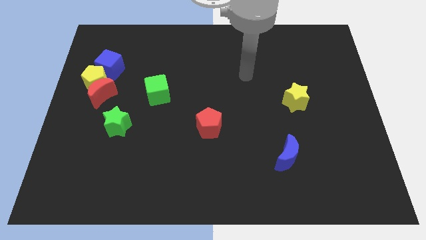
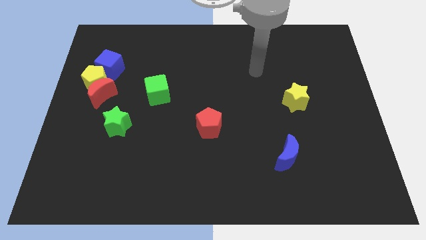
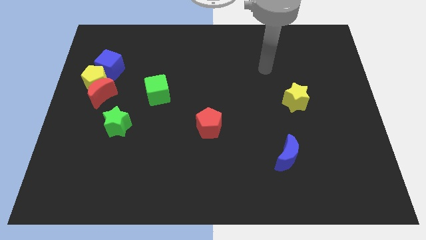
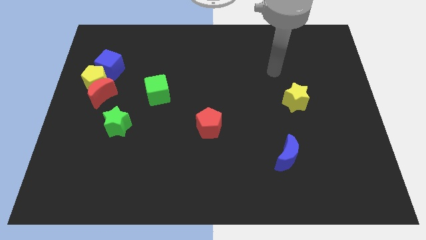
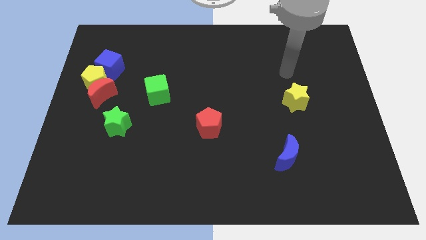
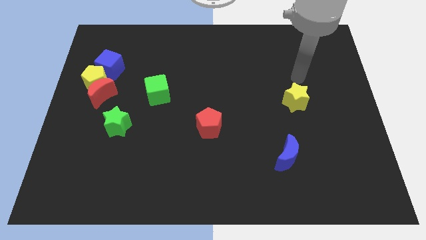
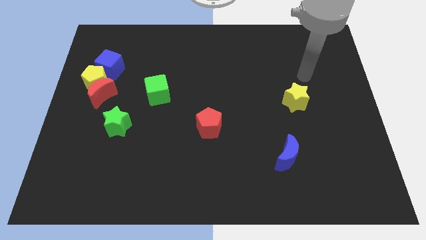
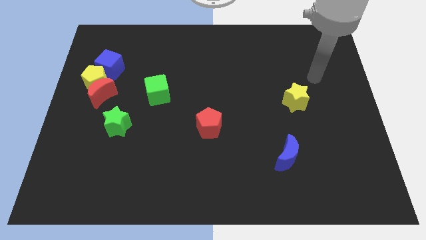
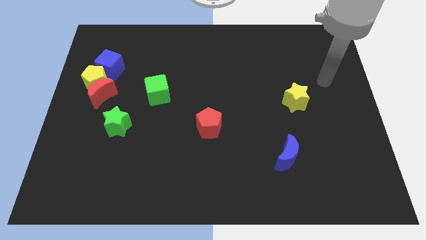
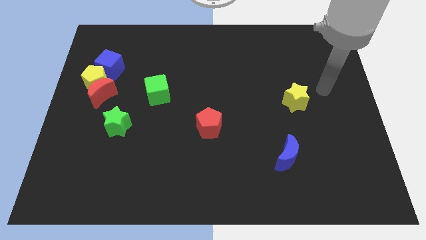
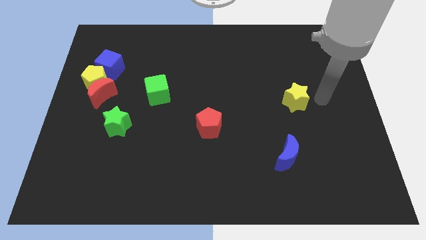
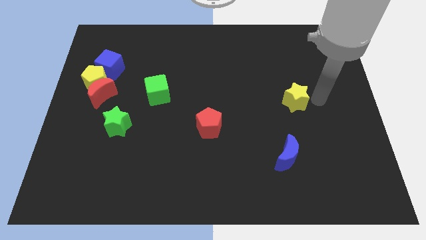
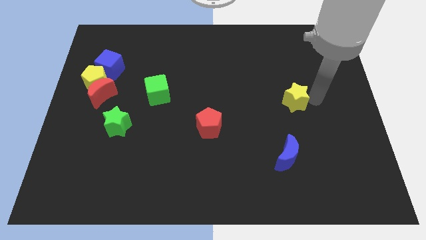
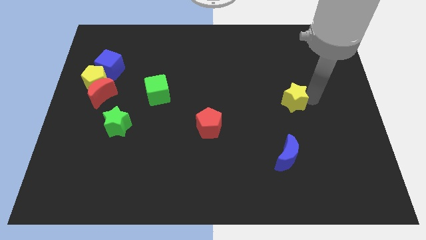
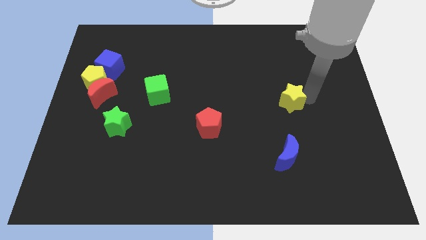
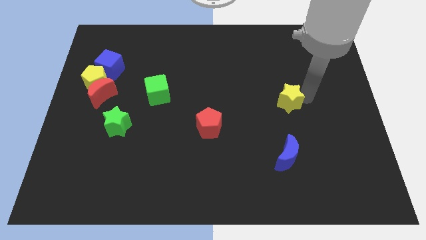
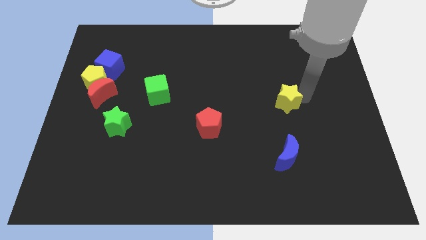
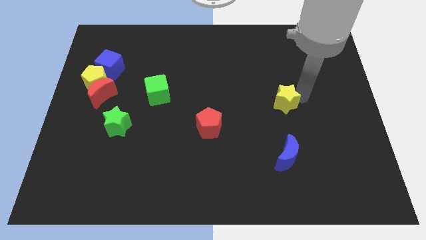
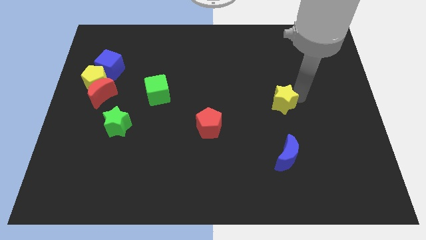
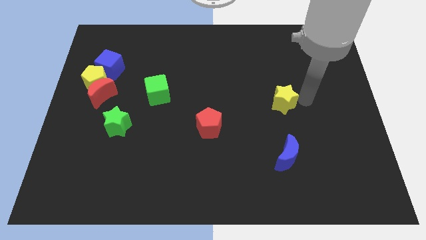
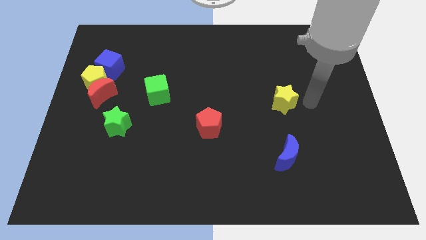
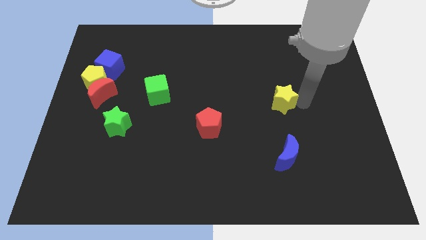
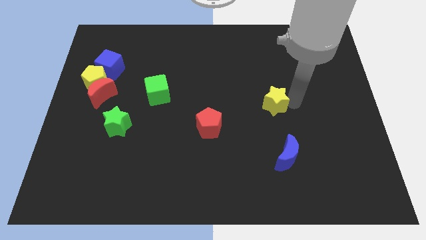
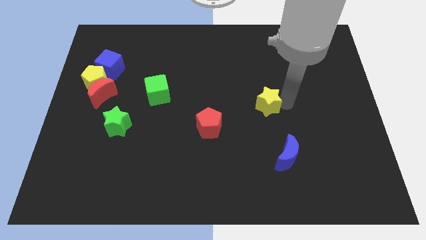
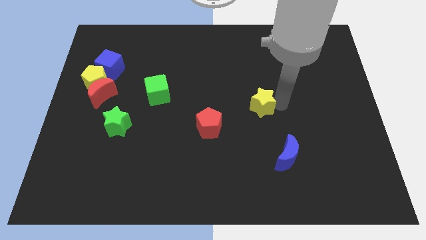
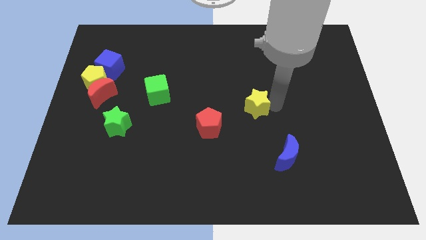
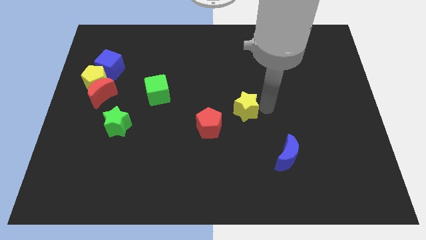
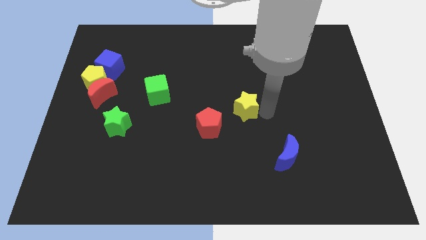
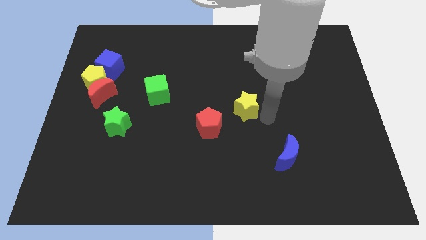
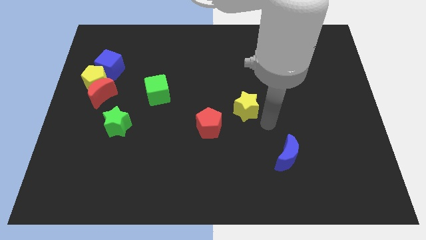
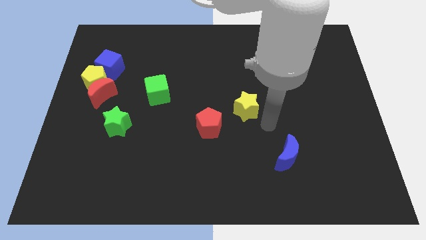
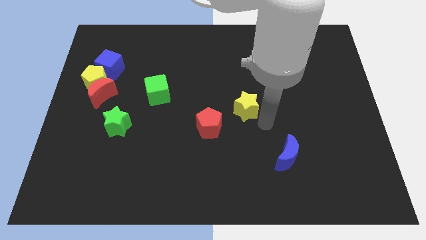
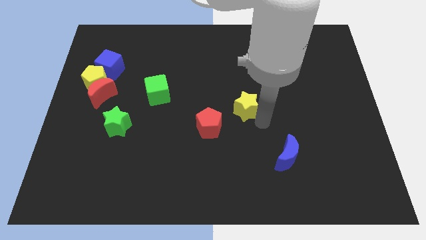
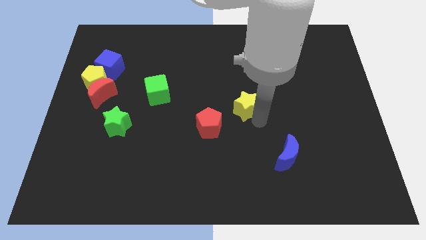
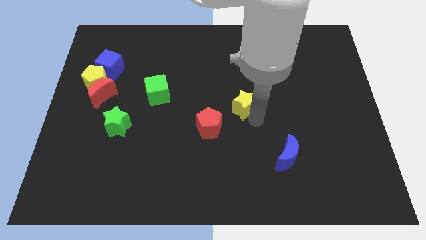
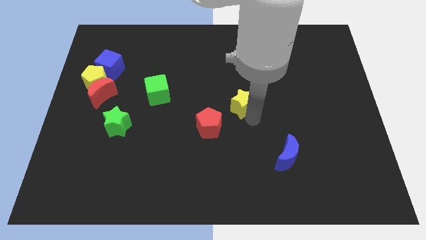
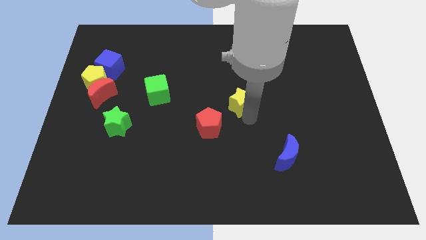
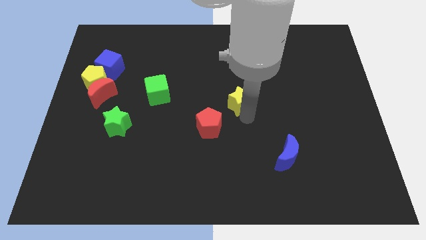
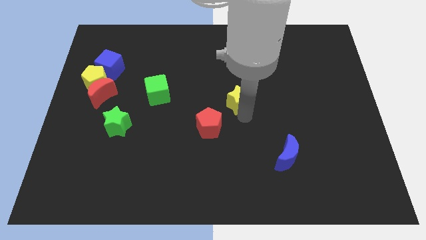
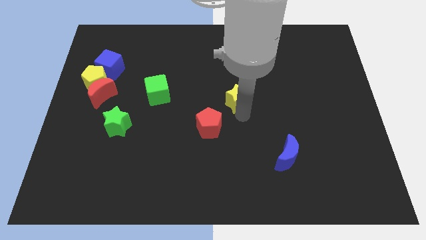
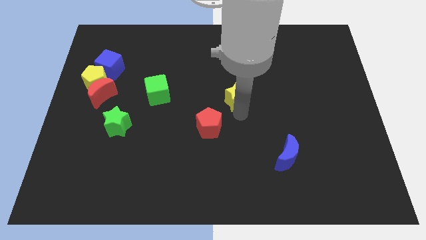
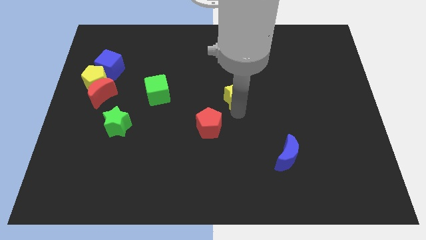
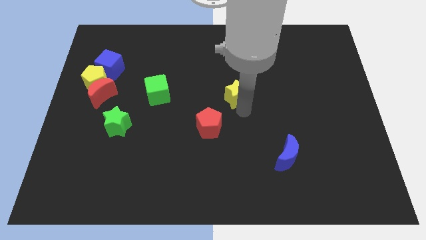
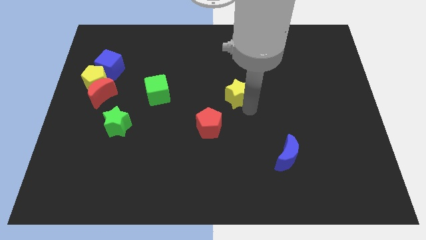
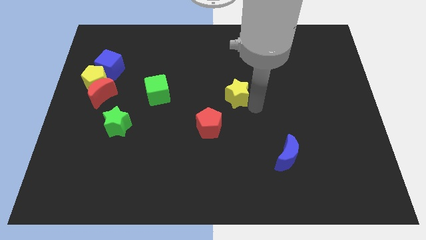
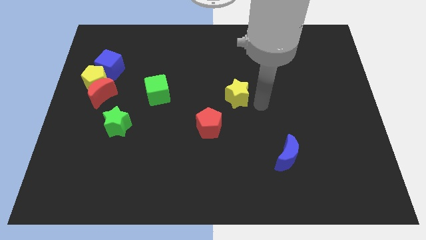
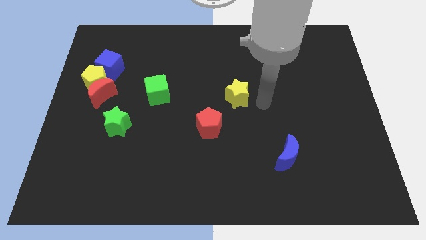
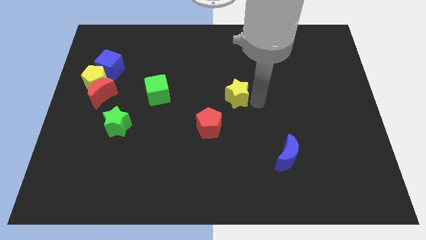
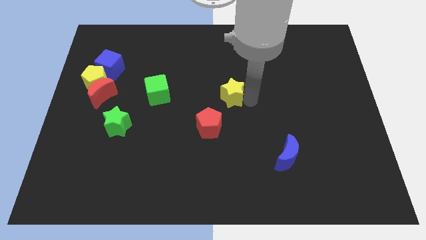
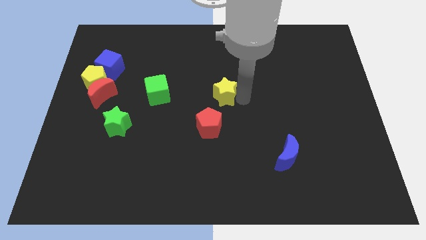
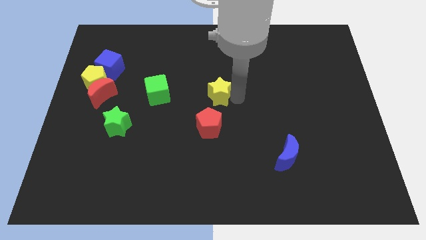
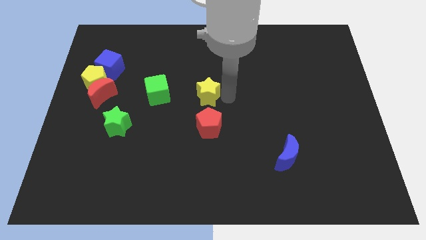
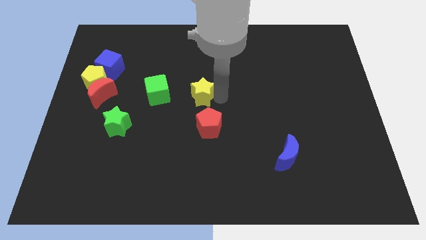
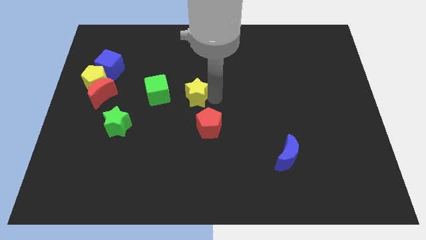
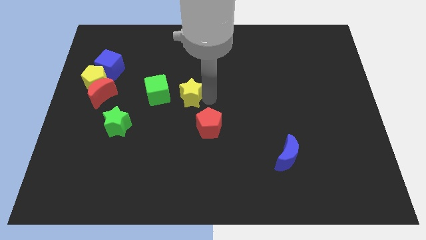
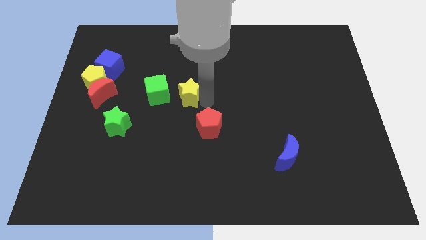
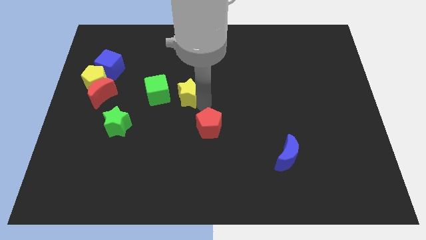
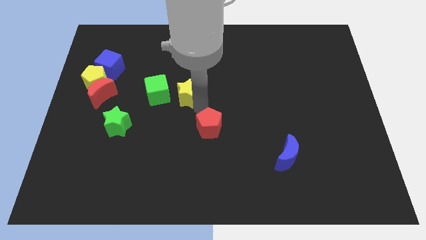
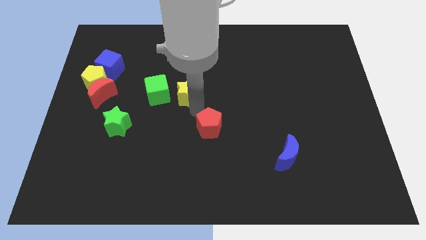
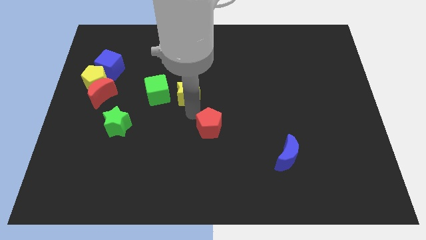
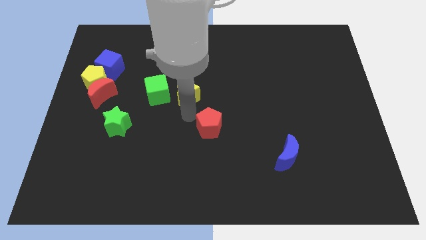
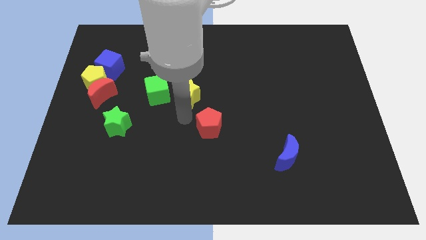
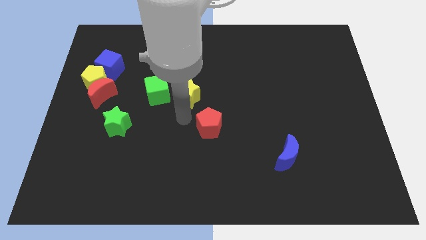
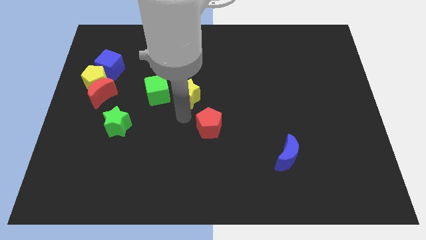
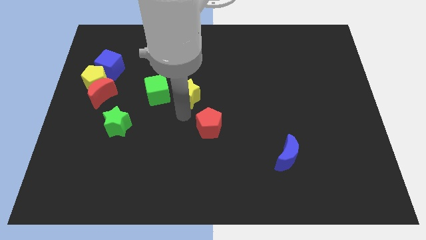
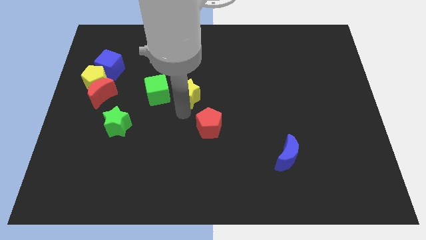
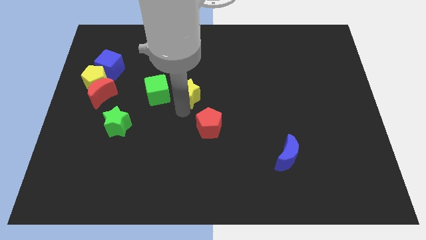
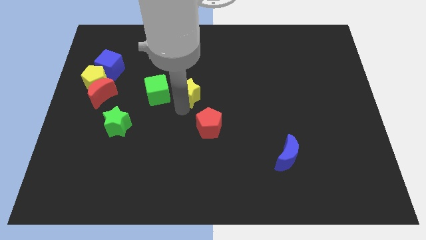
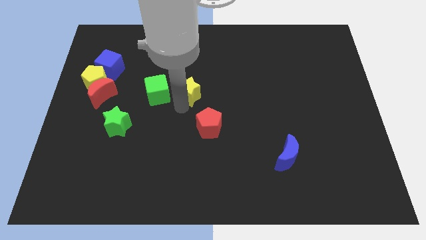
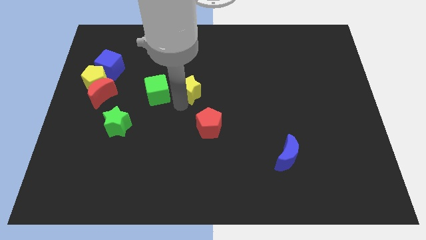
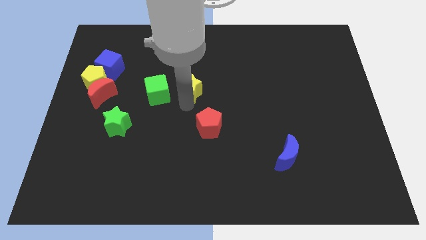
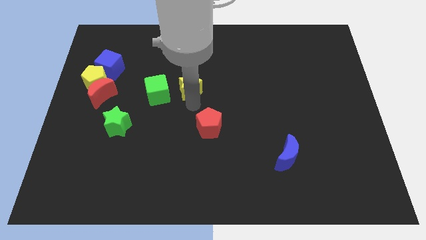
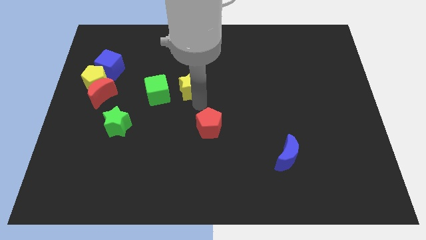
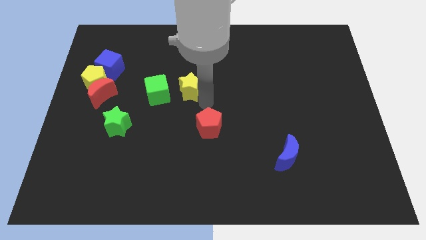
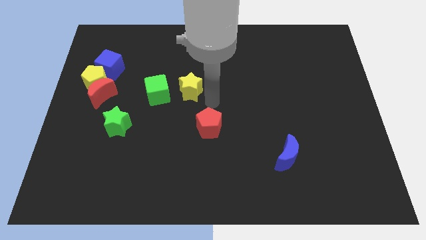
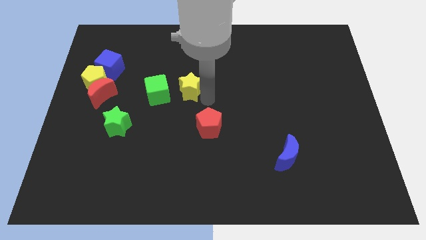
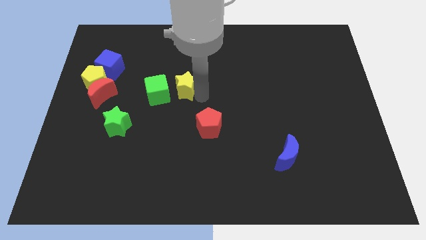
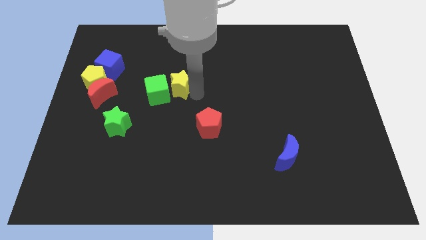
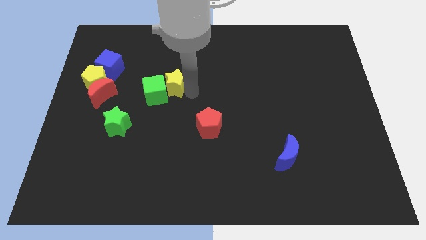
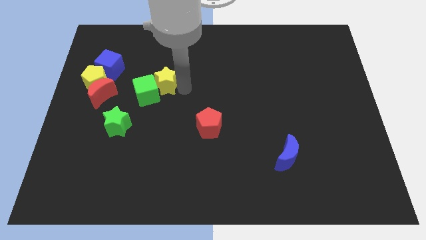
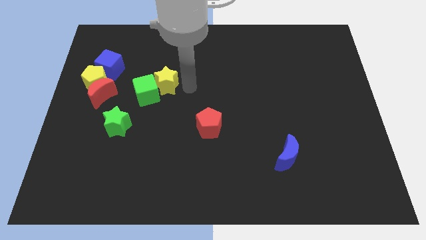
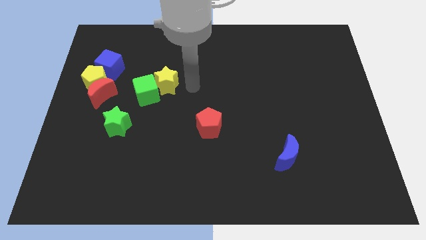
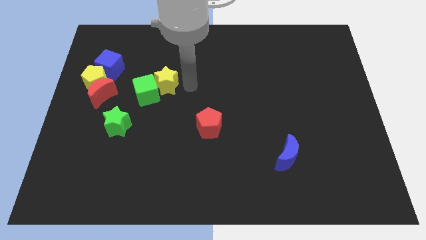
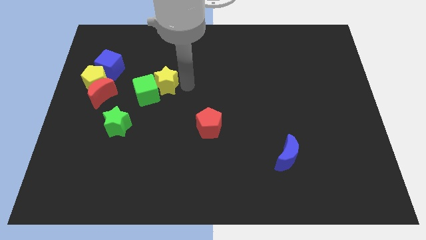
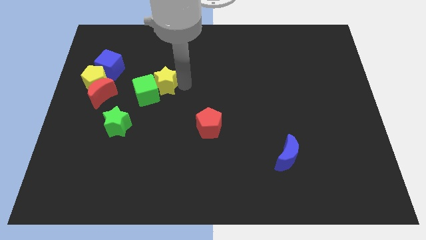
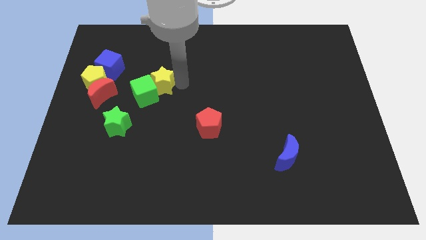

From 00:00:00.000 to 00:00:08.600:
slide the yellow star right of the yellow pentagon
